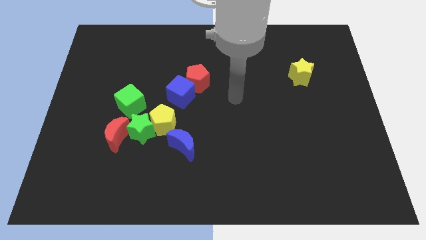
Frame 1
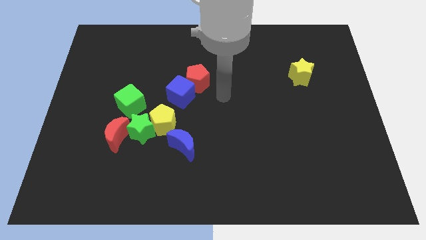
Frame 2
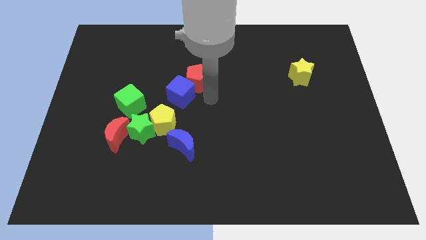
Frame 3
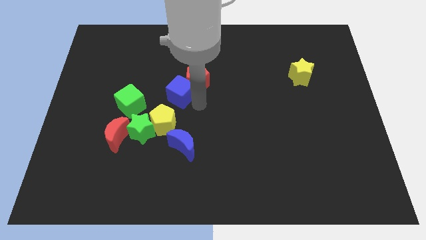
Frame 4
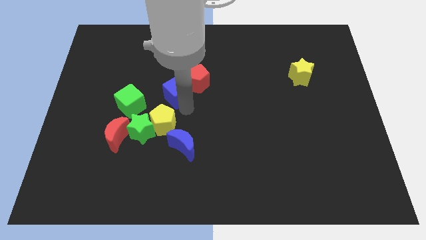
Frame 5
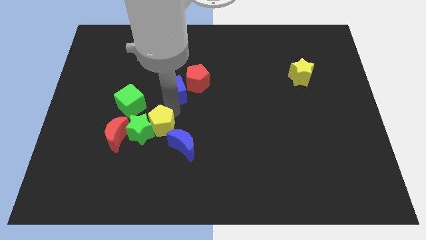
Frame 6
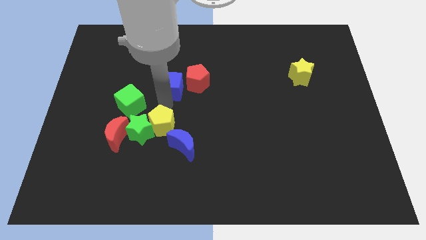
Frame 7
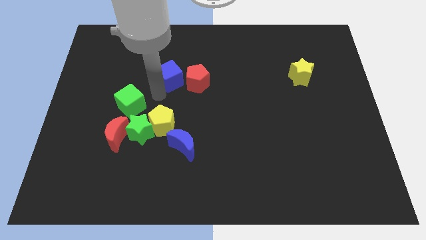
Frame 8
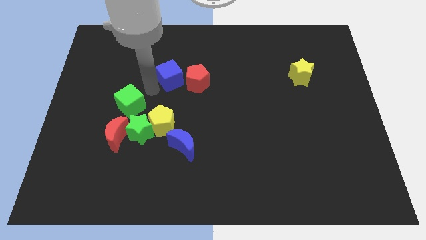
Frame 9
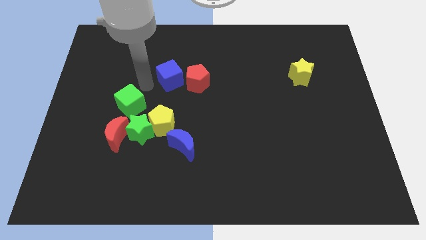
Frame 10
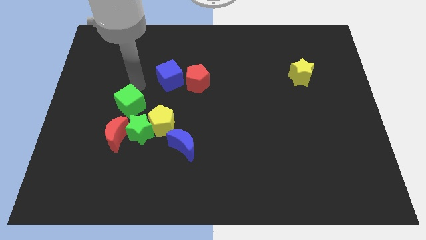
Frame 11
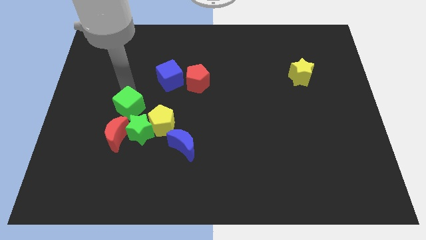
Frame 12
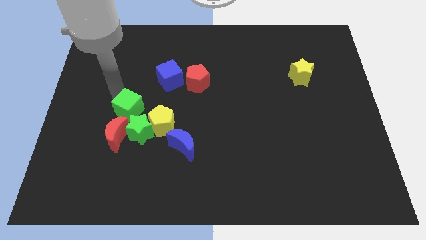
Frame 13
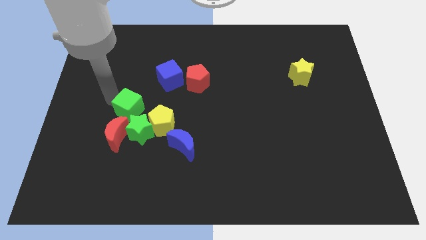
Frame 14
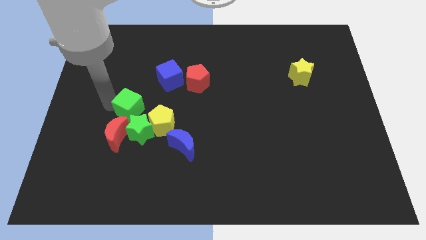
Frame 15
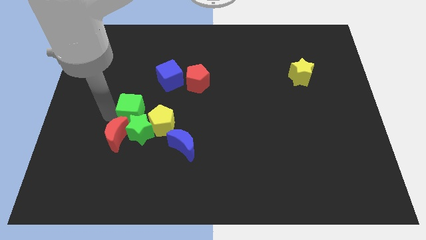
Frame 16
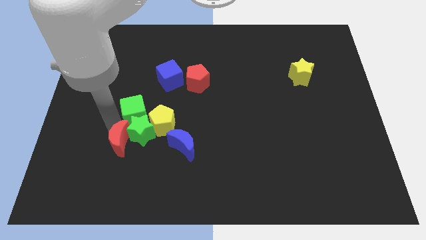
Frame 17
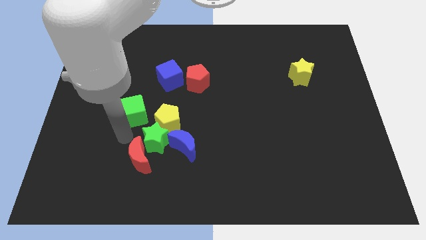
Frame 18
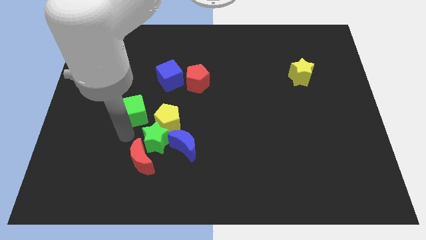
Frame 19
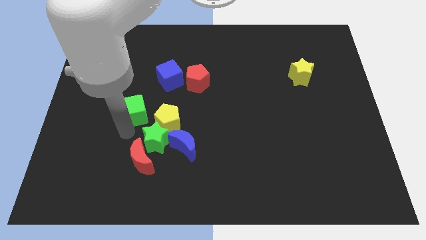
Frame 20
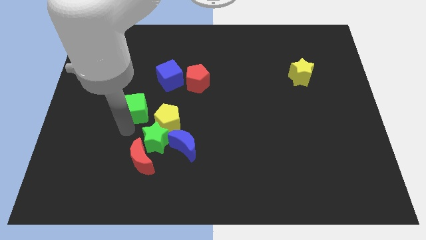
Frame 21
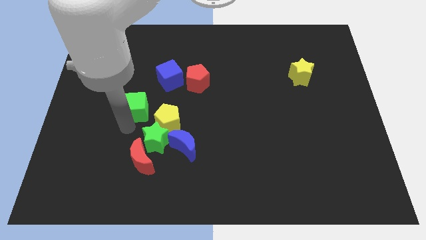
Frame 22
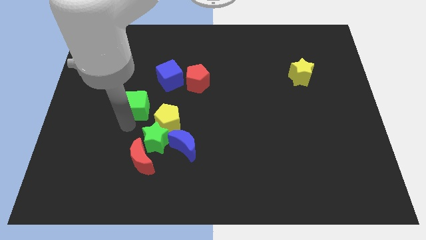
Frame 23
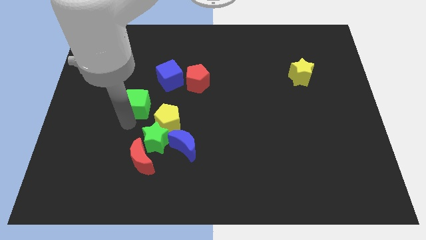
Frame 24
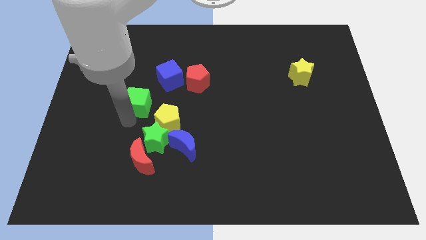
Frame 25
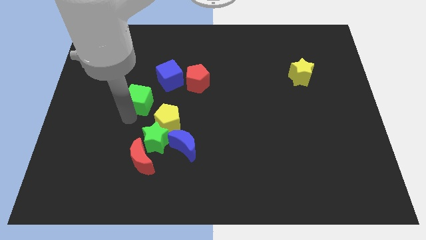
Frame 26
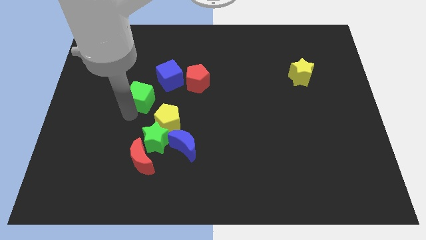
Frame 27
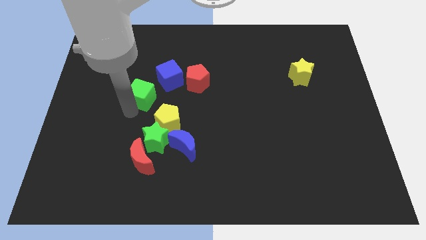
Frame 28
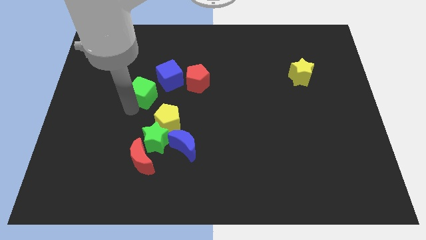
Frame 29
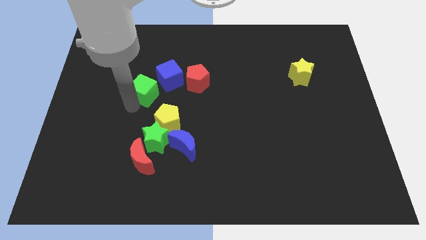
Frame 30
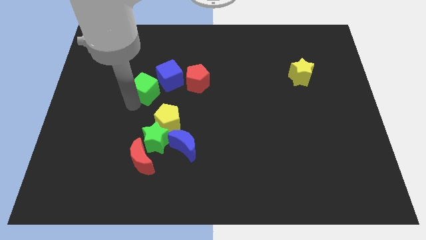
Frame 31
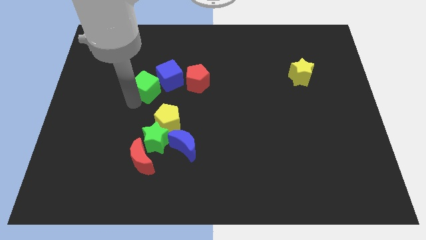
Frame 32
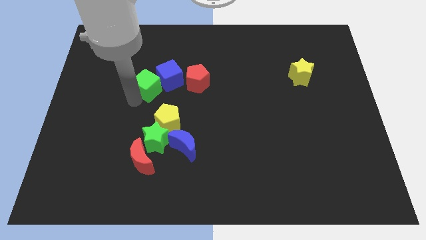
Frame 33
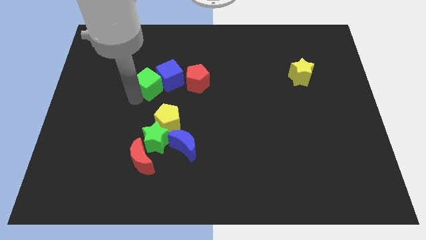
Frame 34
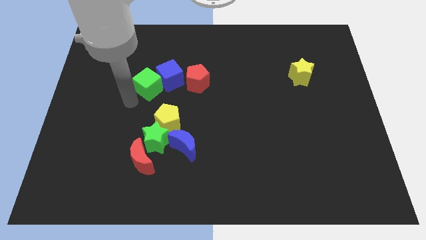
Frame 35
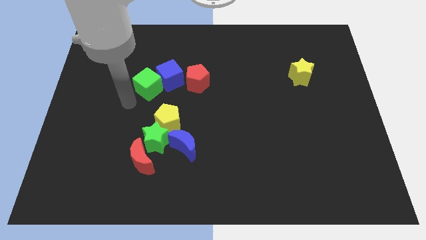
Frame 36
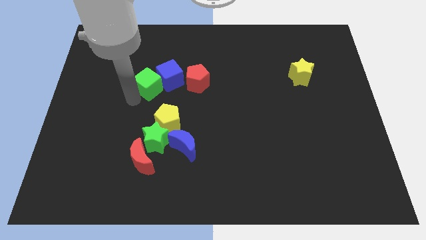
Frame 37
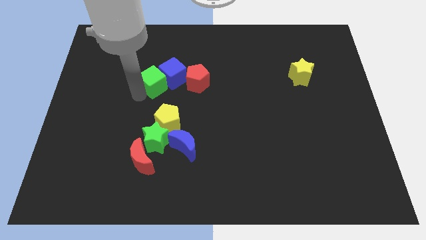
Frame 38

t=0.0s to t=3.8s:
push the green cube up and to the right somewhat

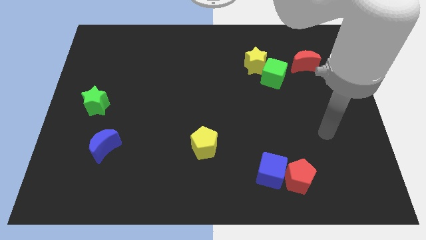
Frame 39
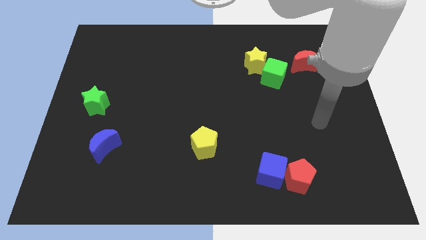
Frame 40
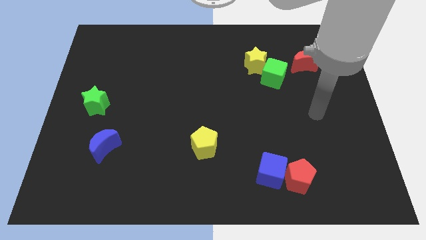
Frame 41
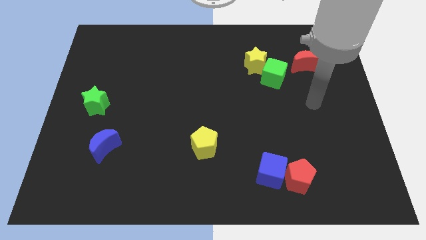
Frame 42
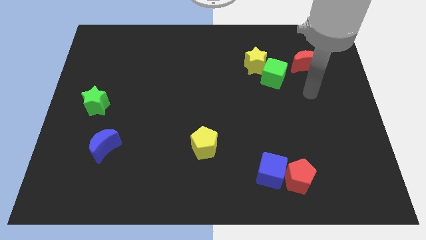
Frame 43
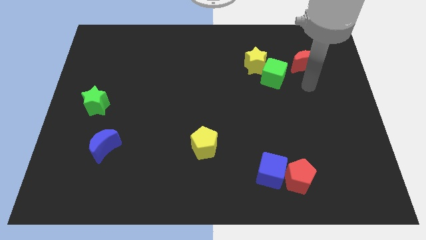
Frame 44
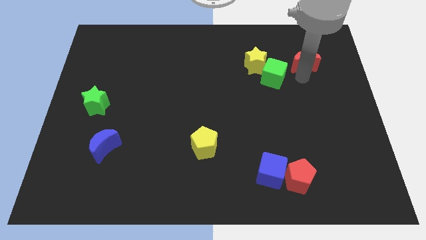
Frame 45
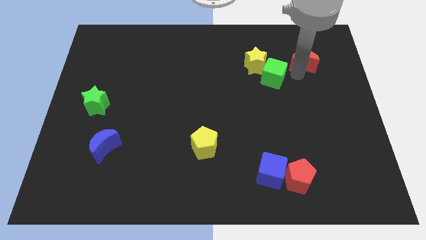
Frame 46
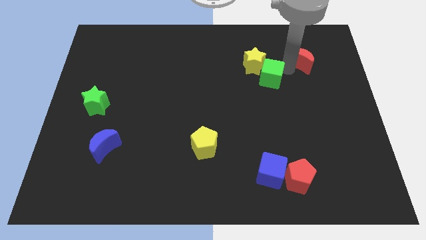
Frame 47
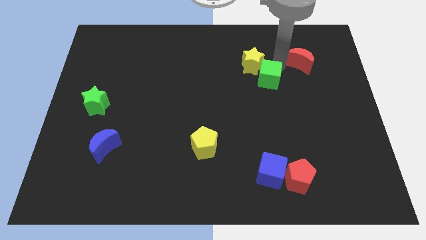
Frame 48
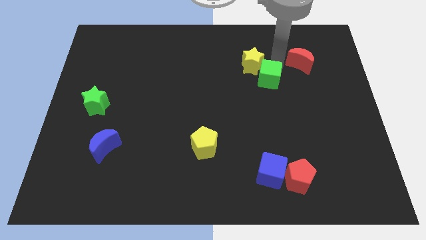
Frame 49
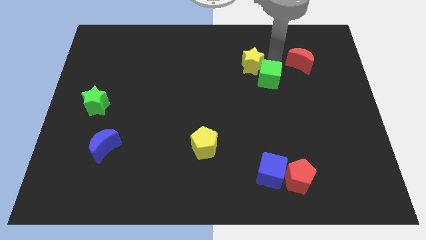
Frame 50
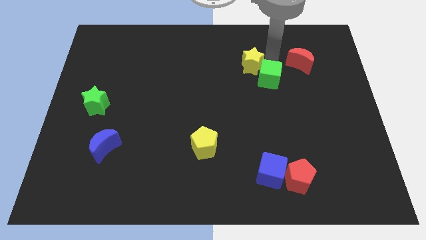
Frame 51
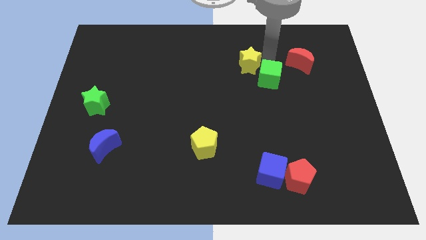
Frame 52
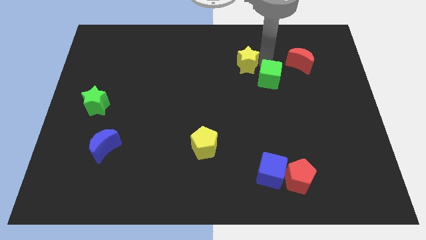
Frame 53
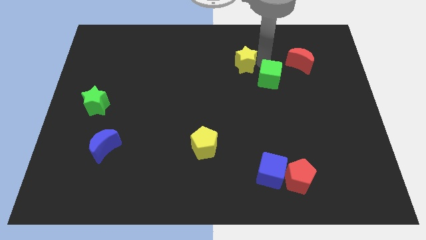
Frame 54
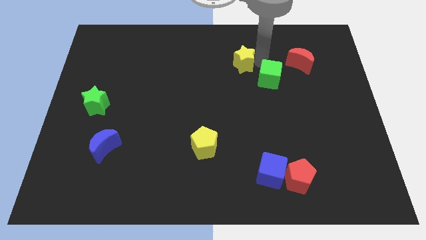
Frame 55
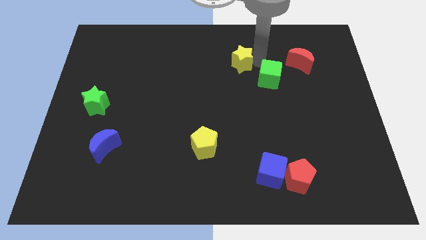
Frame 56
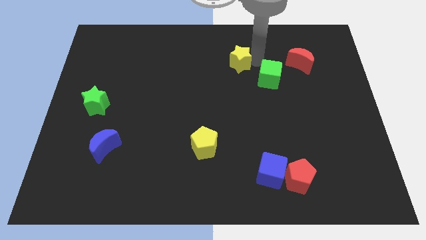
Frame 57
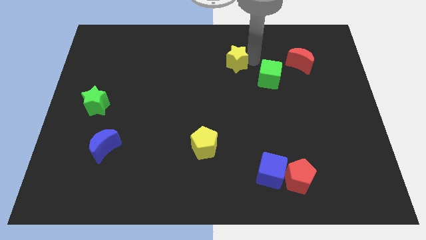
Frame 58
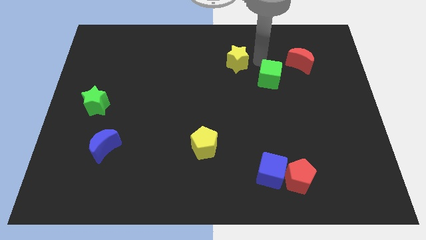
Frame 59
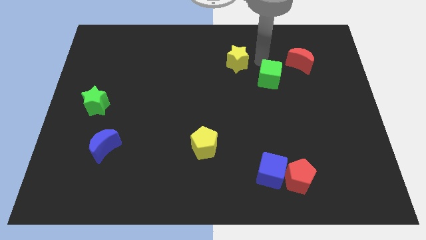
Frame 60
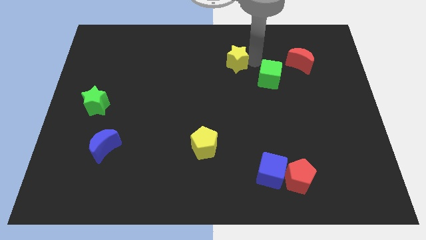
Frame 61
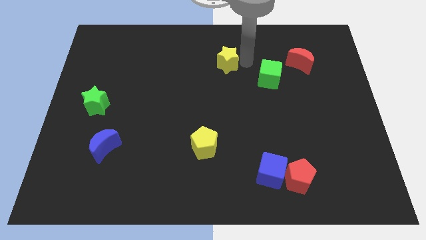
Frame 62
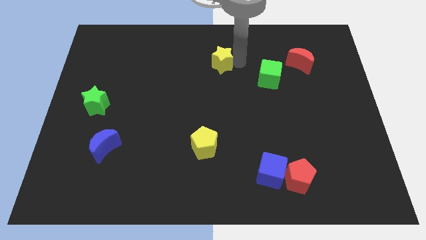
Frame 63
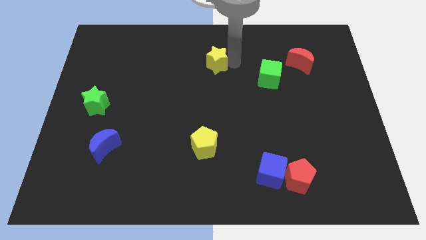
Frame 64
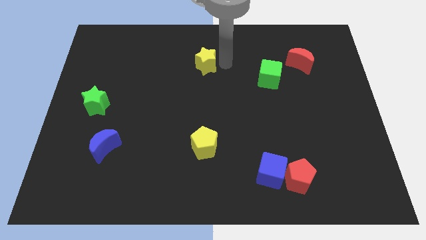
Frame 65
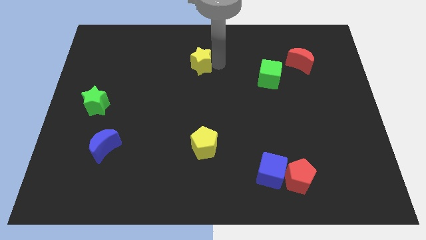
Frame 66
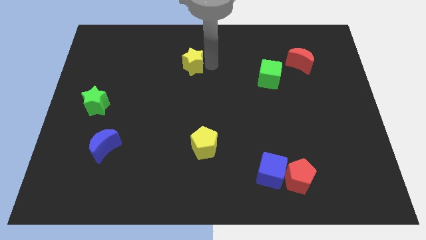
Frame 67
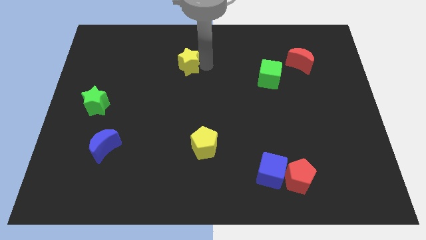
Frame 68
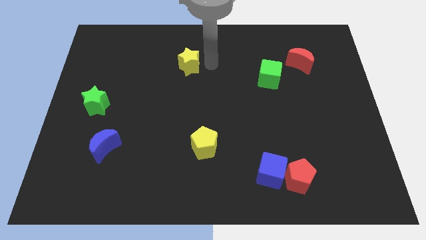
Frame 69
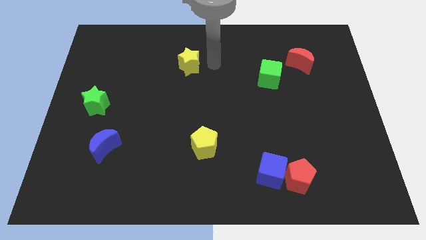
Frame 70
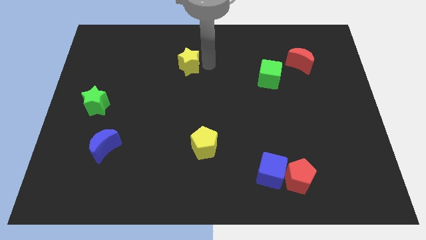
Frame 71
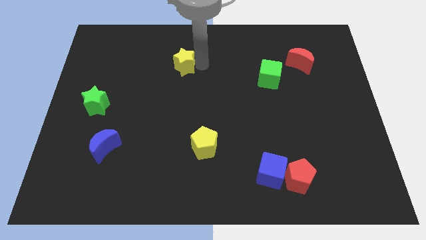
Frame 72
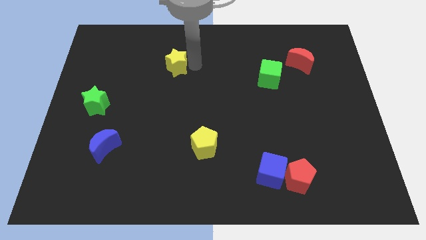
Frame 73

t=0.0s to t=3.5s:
slide the yellow star to the left

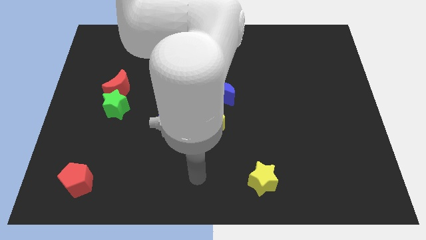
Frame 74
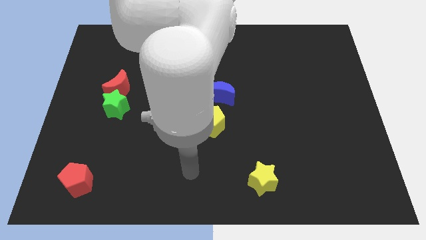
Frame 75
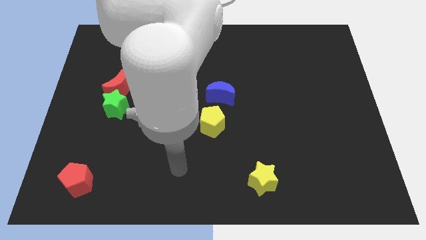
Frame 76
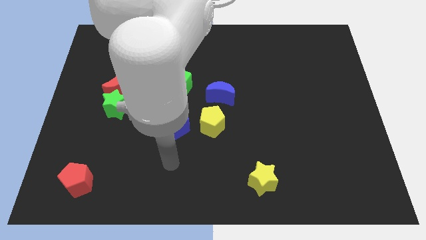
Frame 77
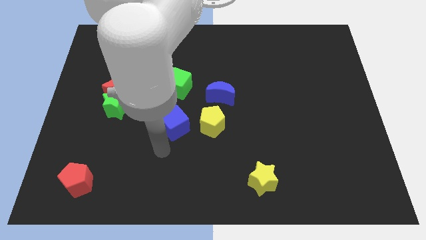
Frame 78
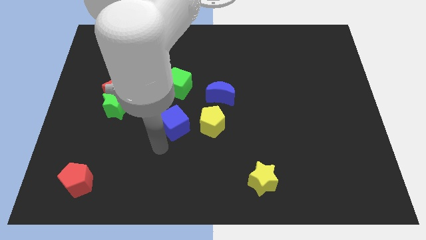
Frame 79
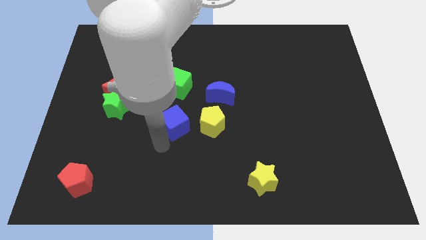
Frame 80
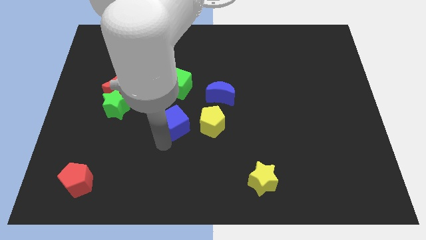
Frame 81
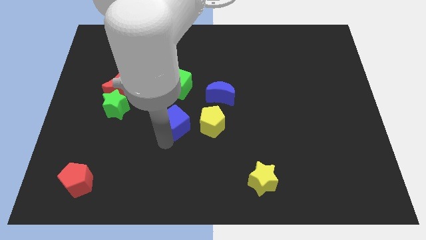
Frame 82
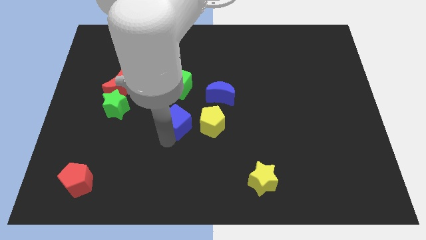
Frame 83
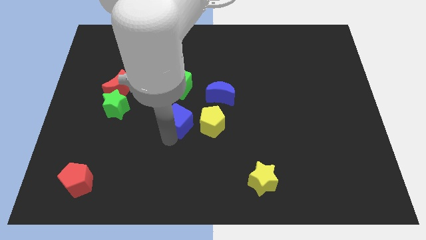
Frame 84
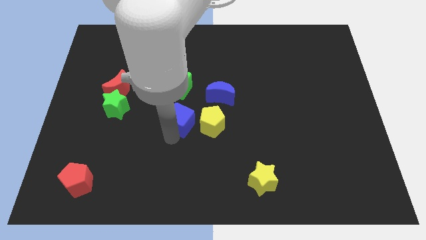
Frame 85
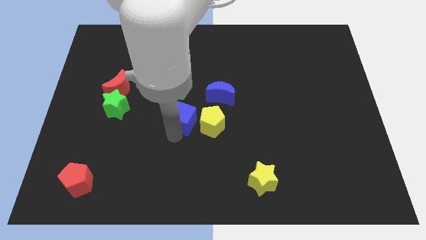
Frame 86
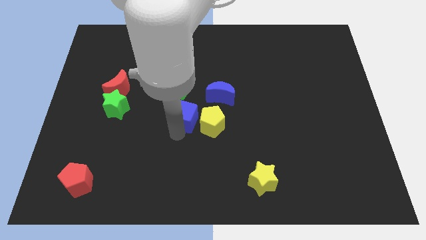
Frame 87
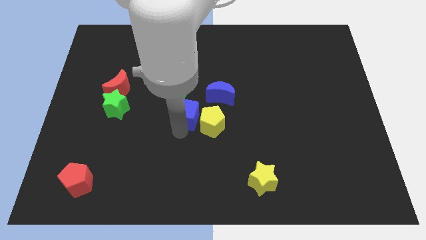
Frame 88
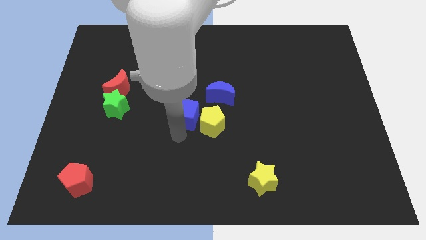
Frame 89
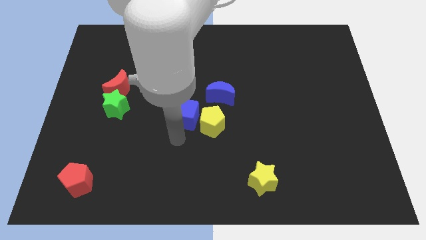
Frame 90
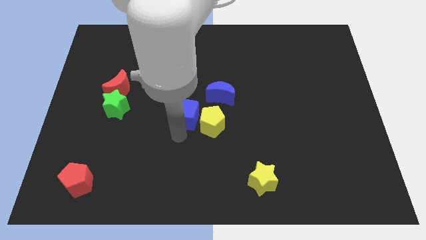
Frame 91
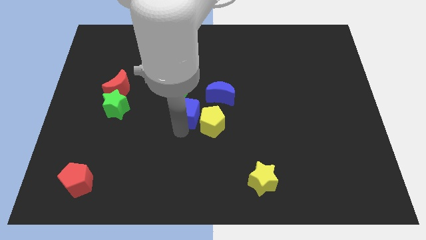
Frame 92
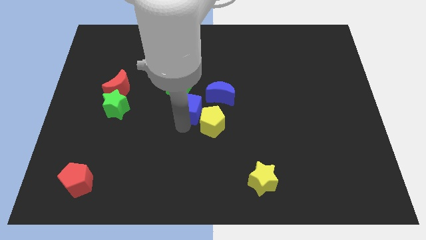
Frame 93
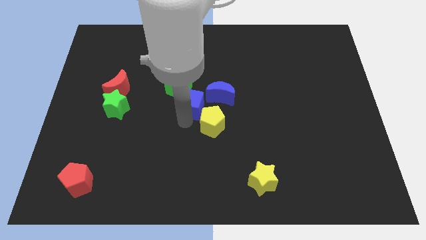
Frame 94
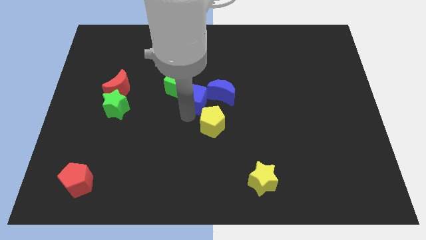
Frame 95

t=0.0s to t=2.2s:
move the blue cube upwards and to the right diagonally slightly
